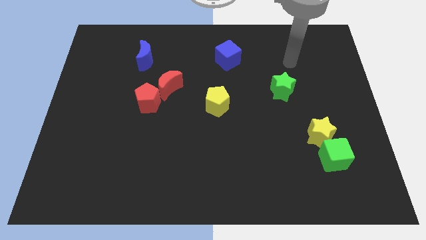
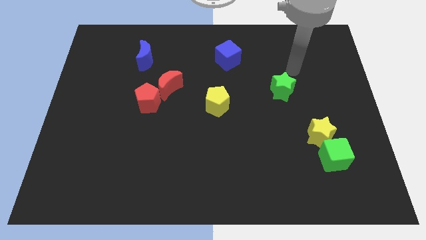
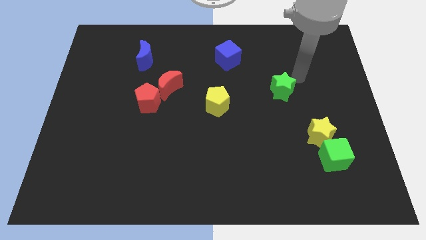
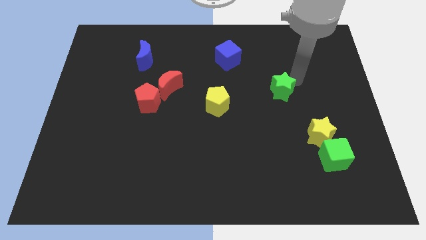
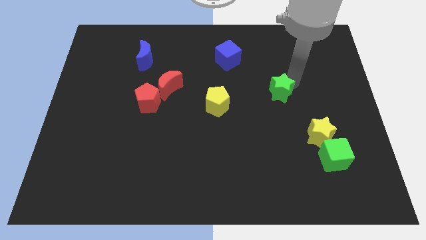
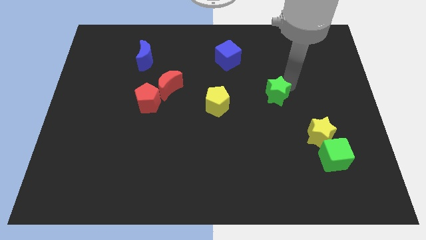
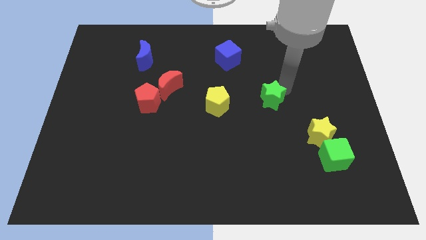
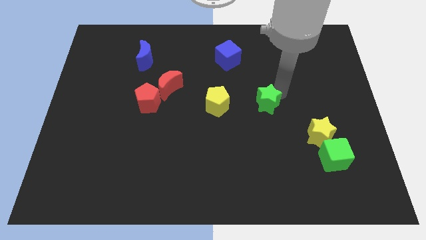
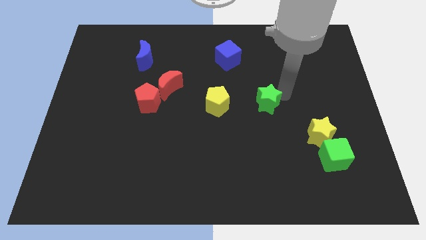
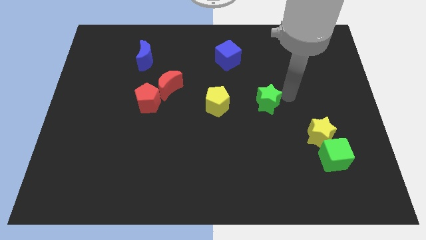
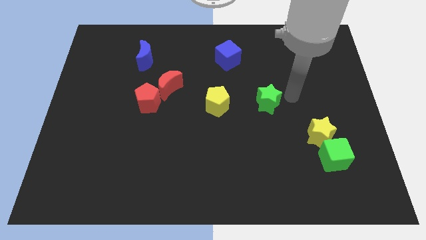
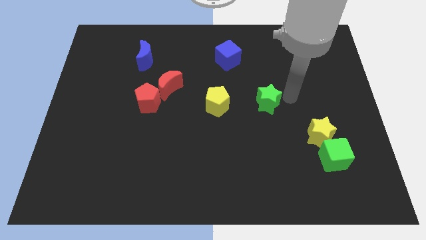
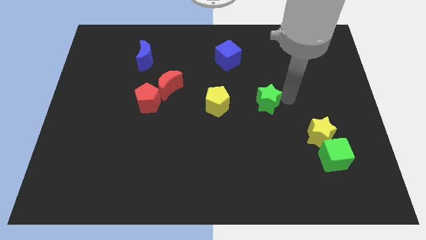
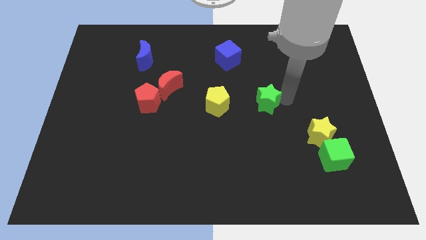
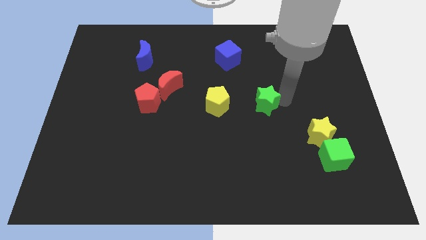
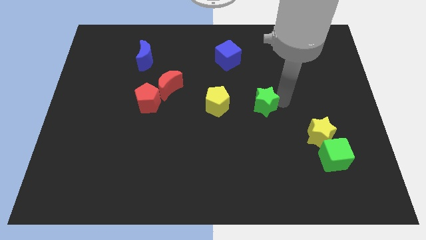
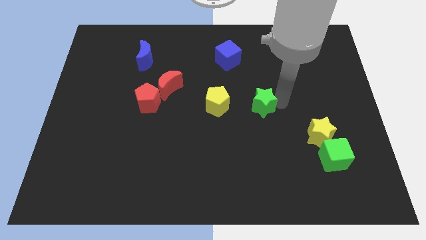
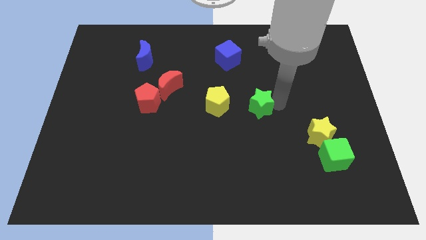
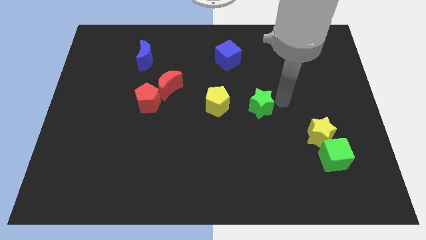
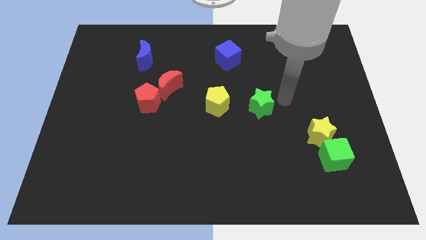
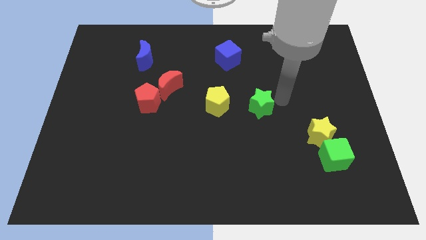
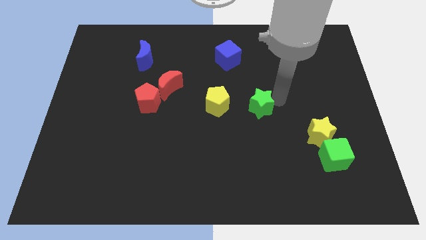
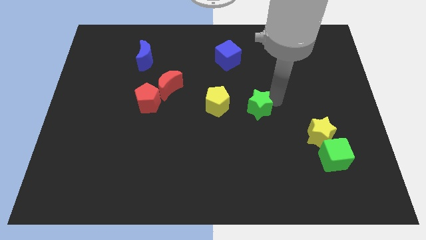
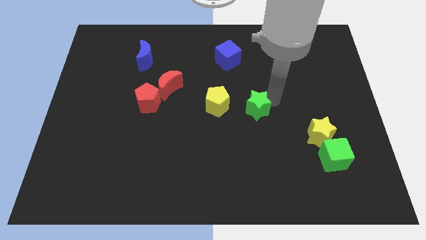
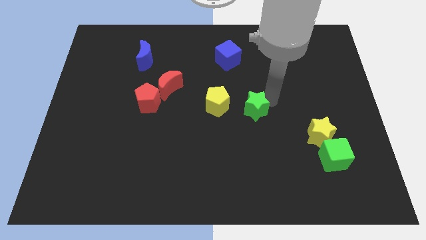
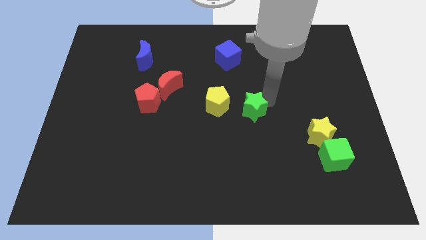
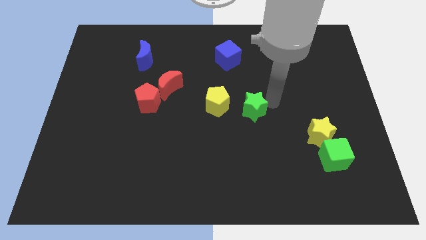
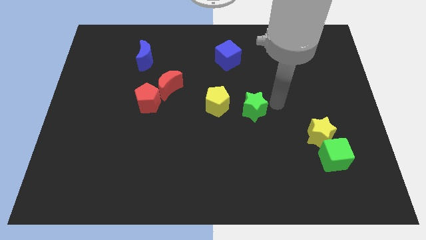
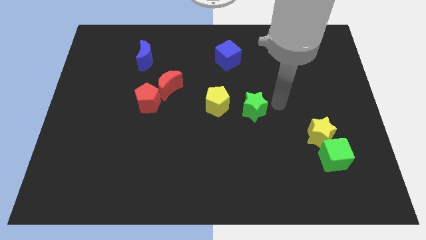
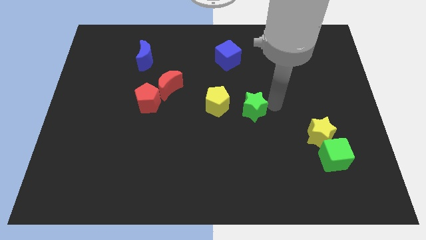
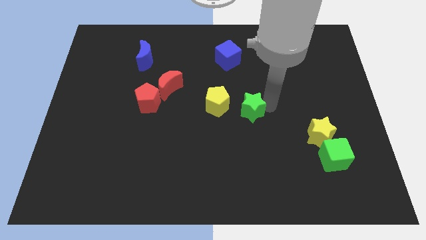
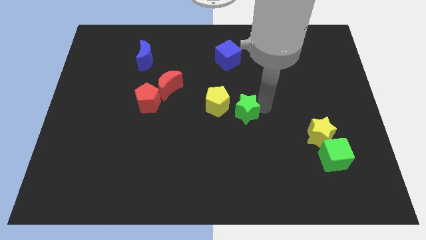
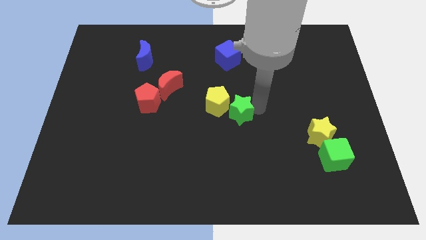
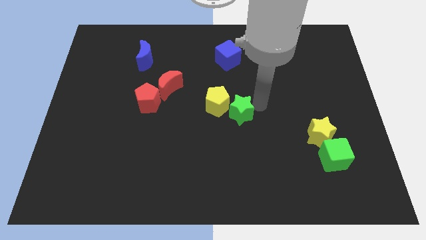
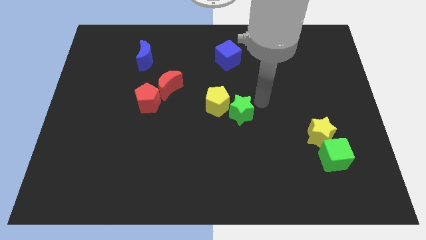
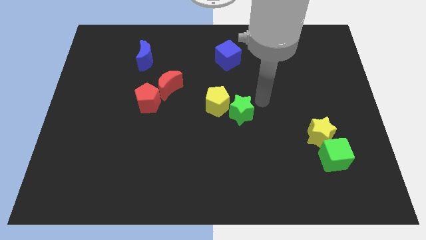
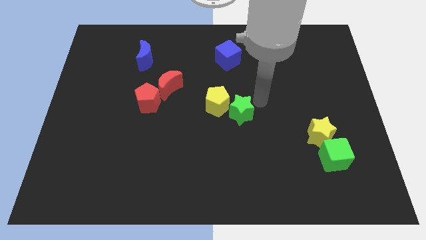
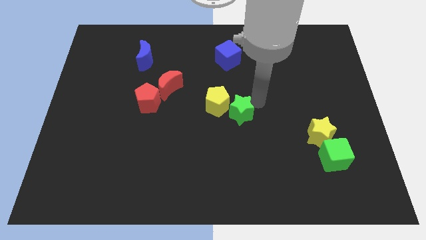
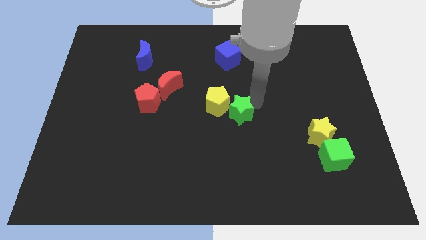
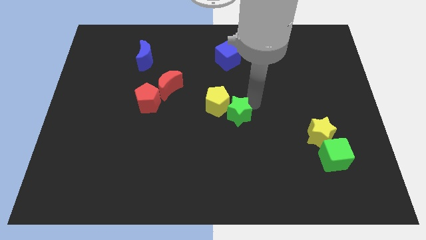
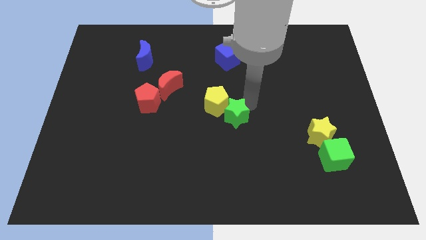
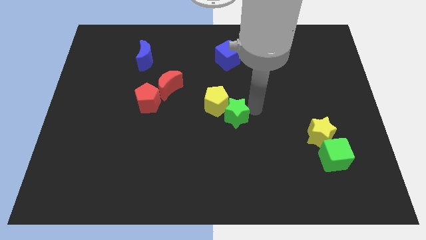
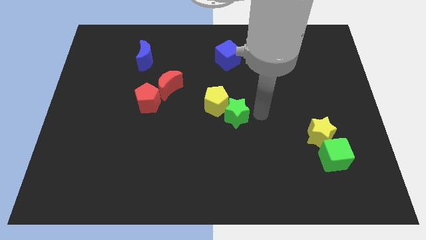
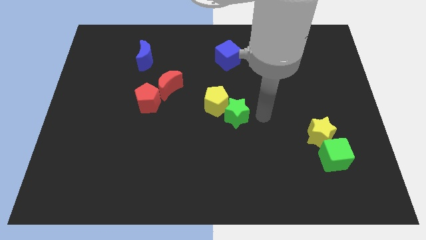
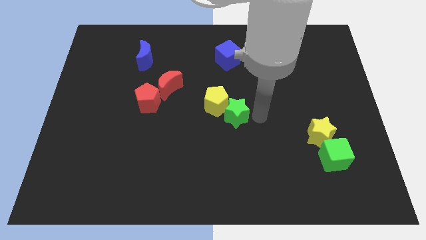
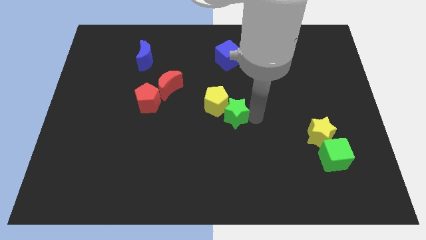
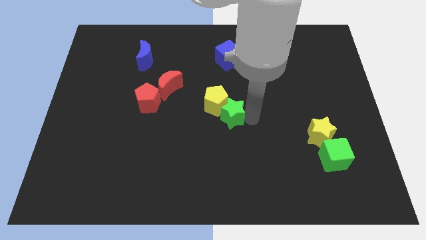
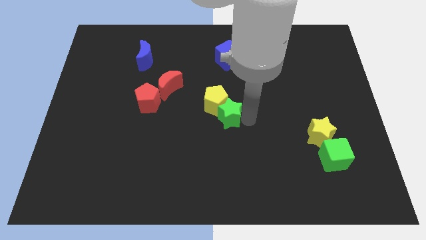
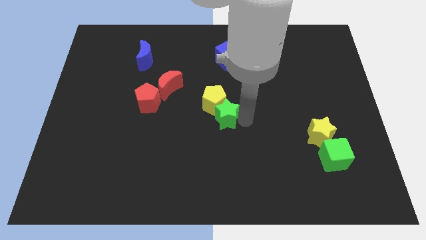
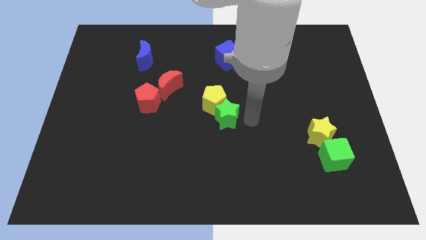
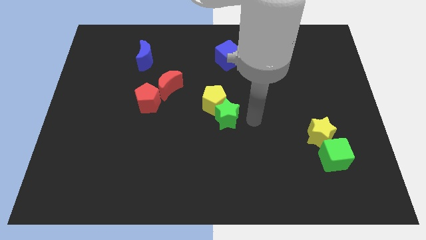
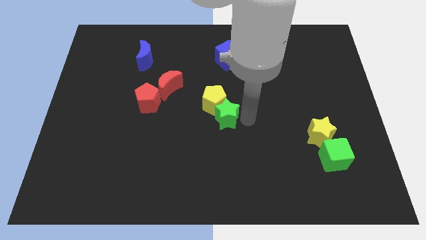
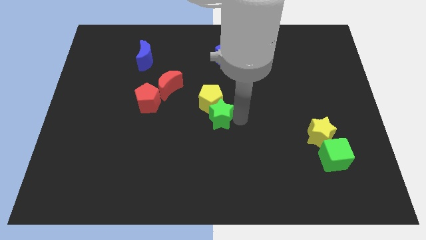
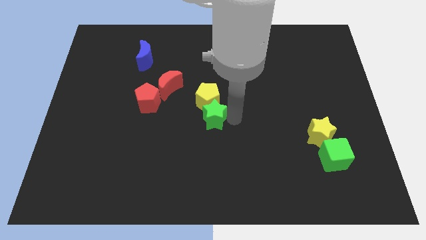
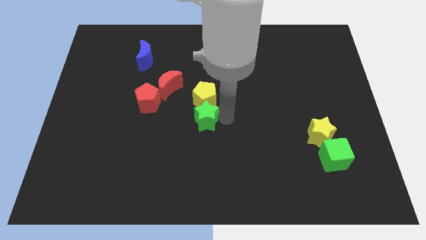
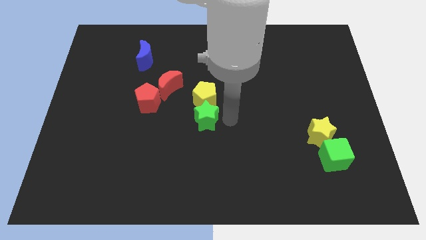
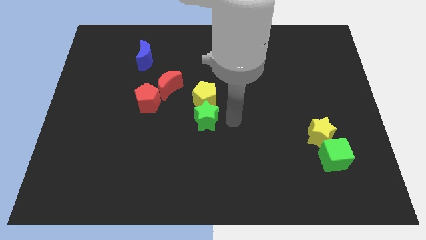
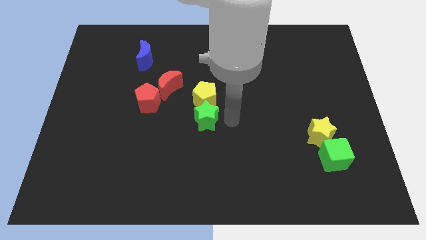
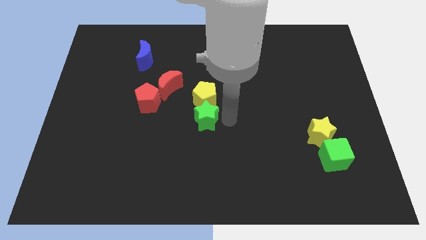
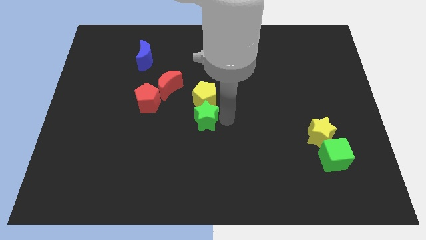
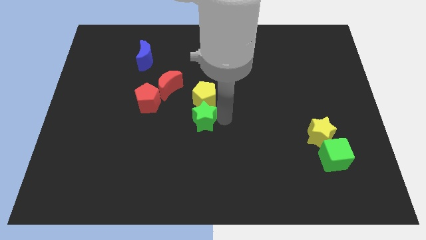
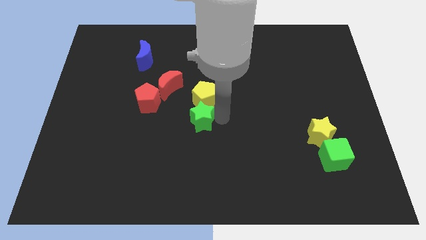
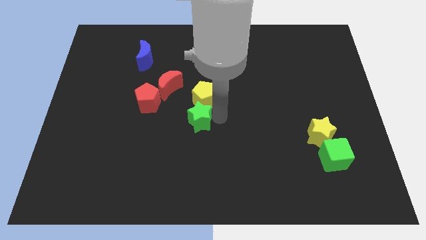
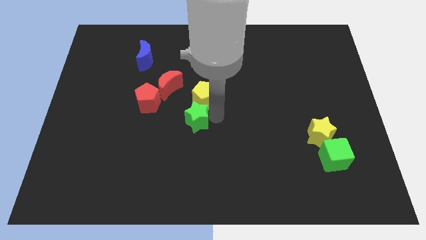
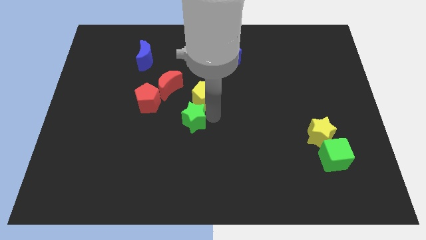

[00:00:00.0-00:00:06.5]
push the green star to the bottom right of the red pentagon

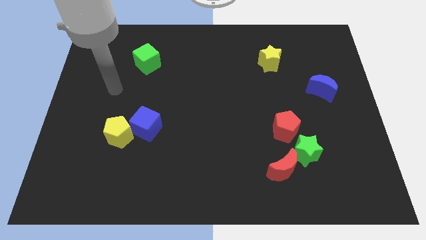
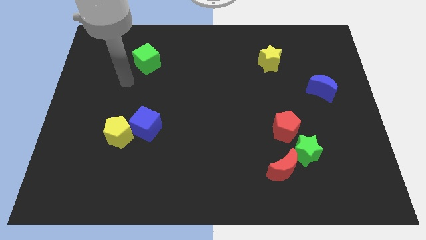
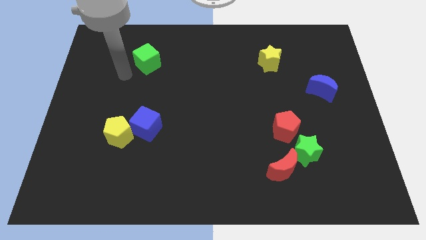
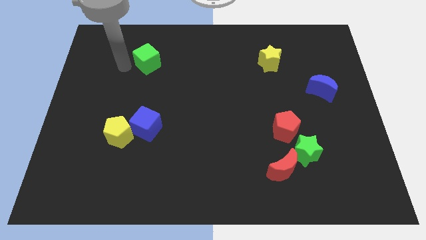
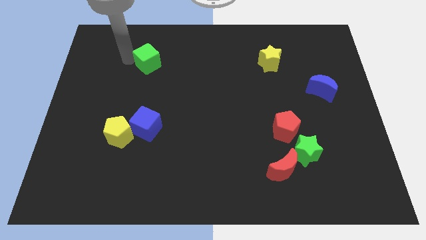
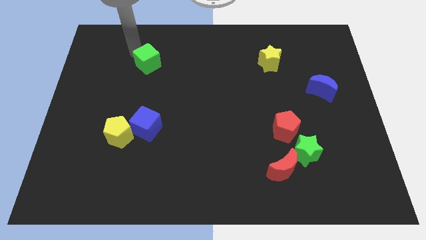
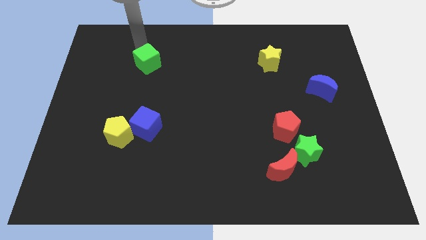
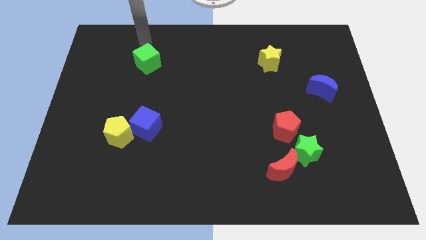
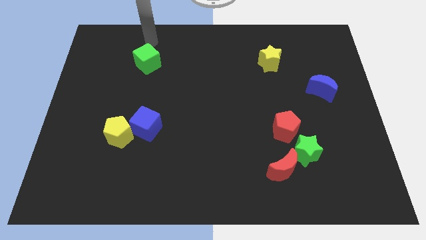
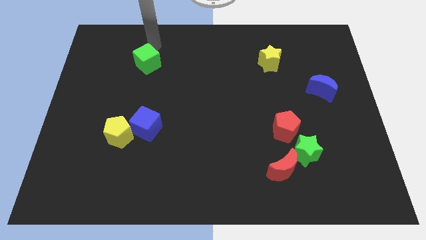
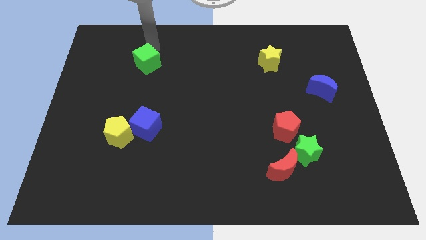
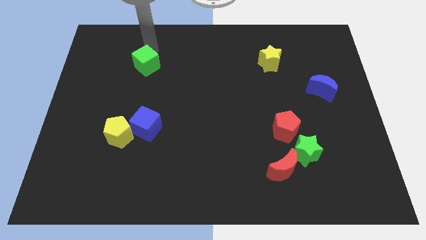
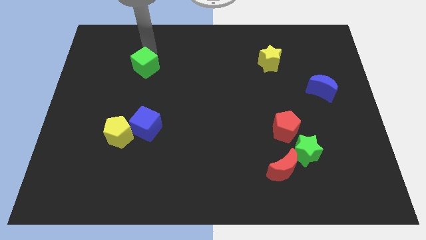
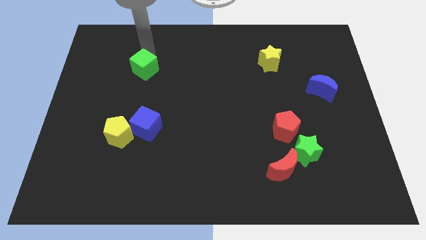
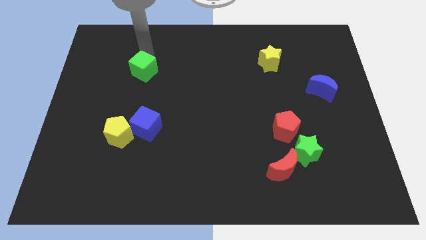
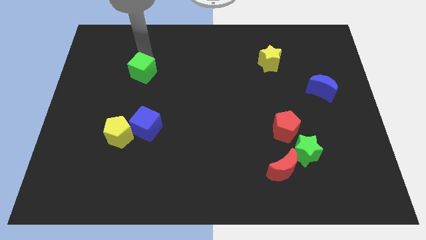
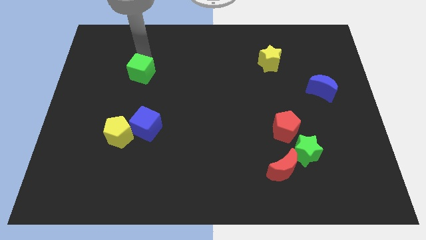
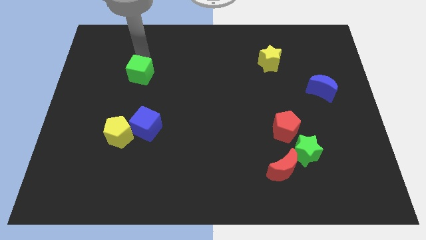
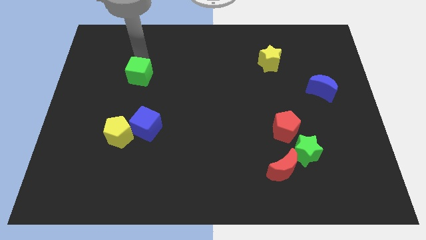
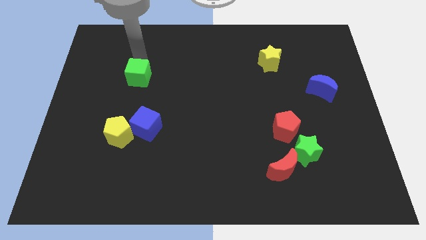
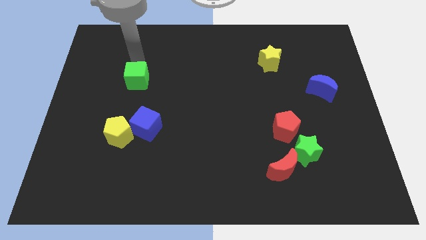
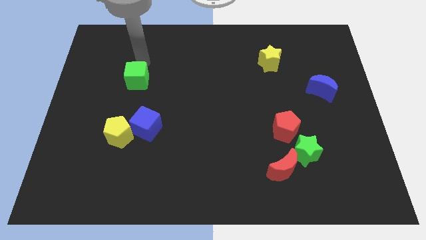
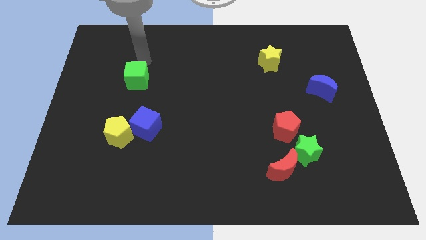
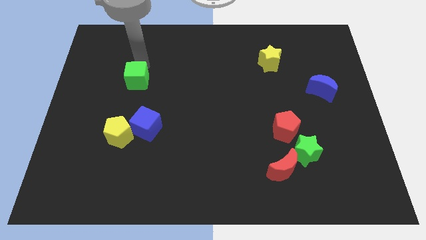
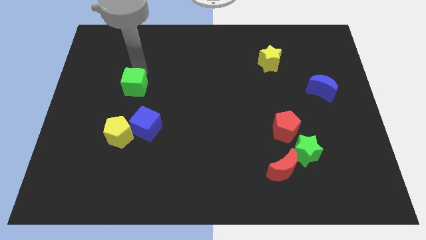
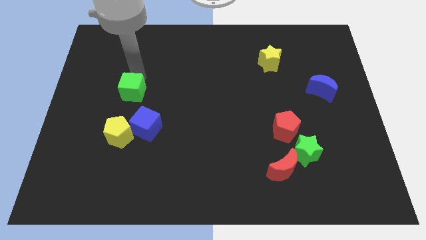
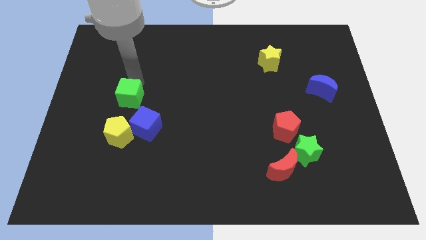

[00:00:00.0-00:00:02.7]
move the green cube to the top left of the blue cube
